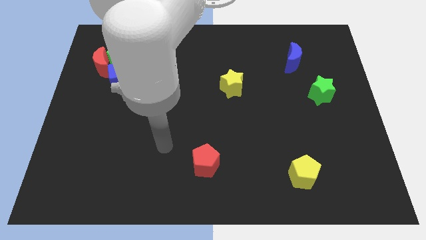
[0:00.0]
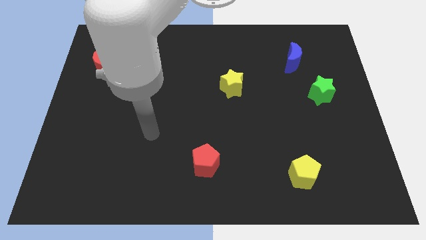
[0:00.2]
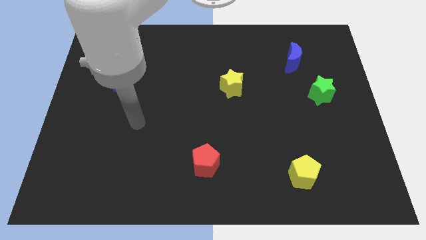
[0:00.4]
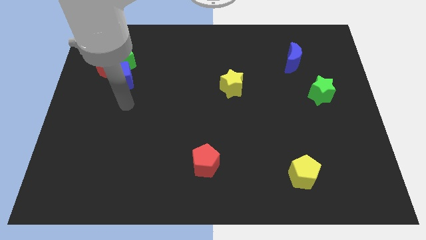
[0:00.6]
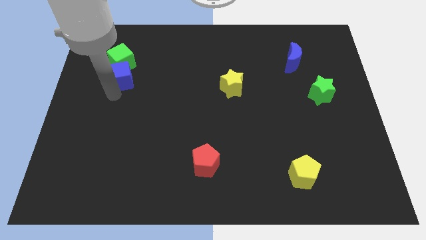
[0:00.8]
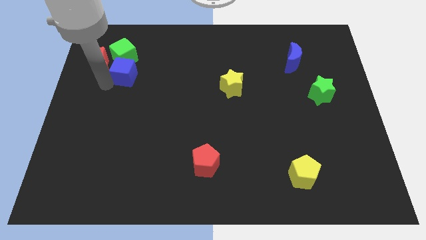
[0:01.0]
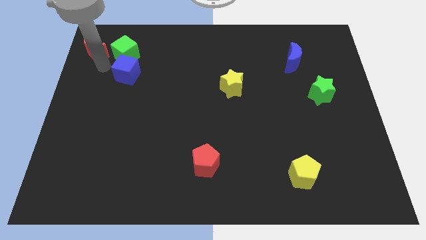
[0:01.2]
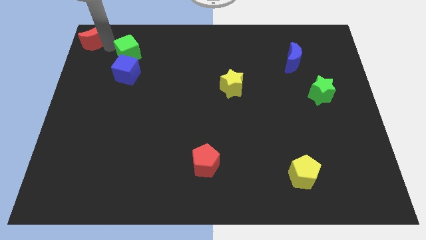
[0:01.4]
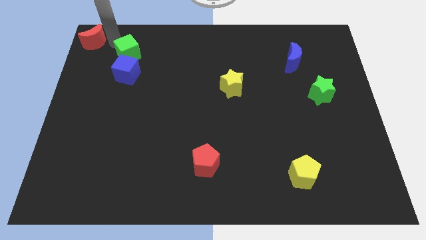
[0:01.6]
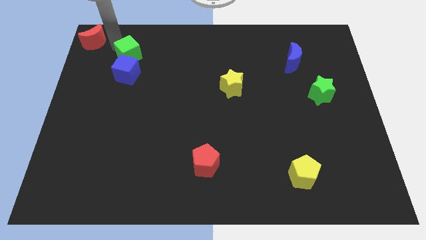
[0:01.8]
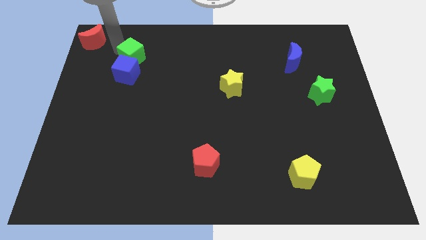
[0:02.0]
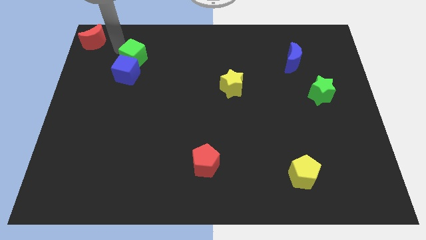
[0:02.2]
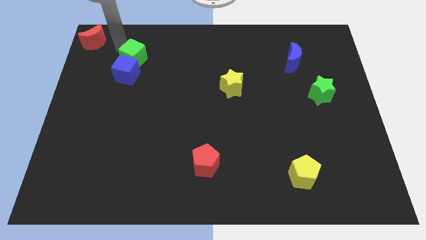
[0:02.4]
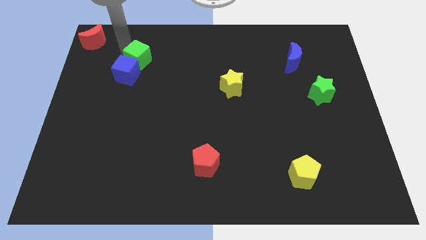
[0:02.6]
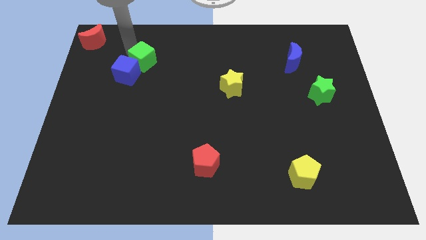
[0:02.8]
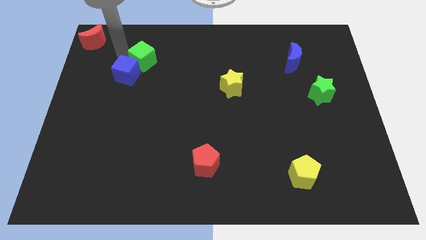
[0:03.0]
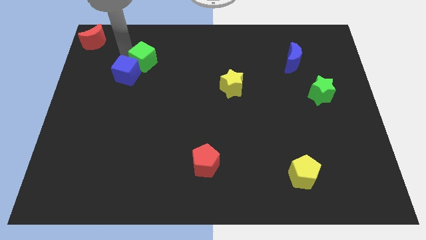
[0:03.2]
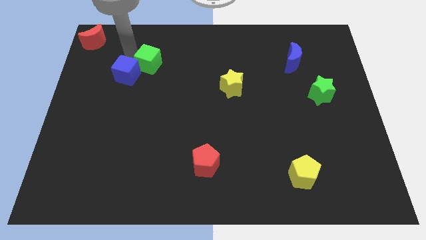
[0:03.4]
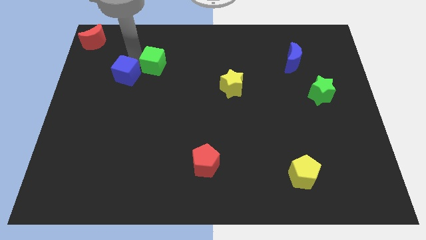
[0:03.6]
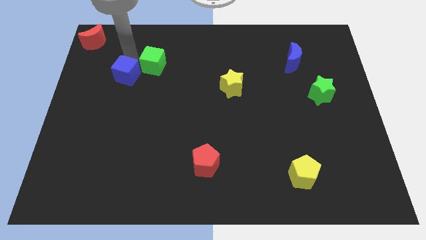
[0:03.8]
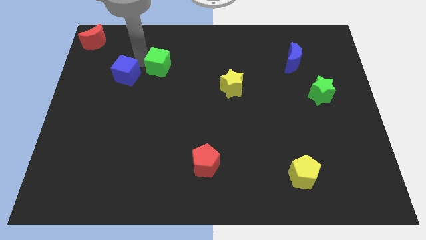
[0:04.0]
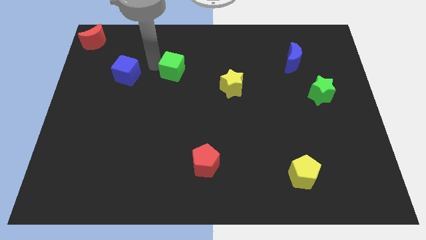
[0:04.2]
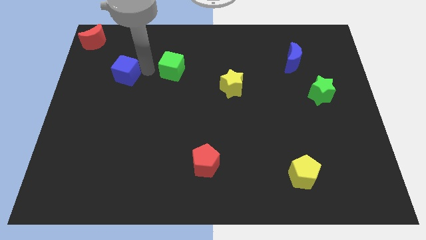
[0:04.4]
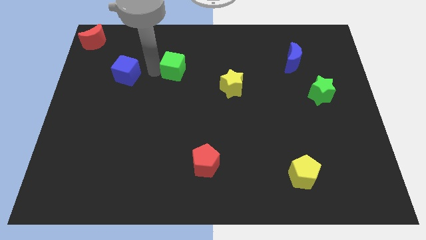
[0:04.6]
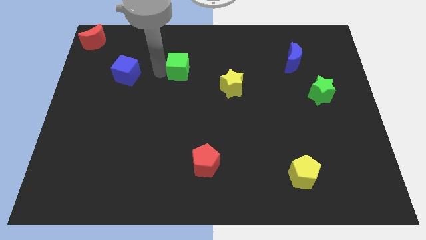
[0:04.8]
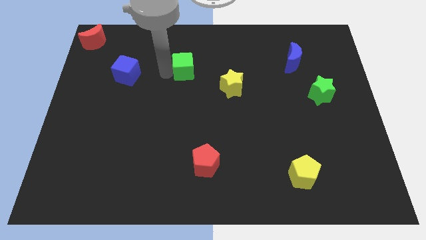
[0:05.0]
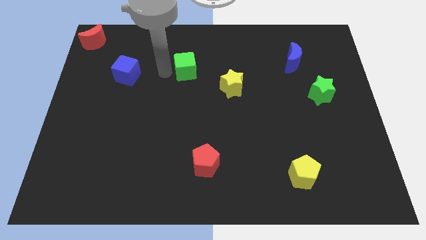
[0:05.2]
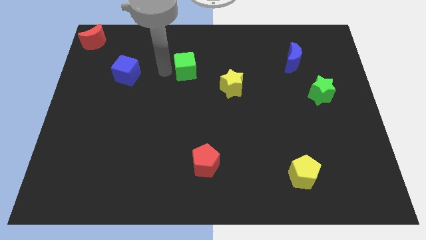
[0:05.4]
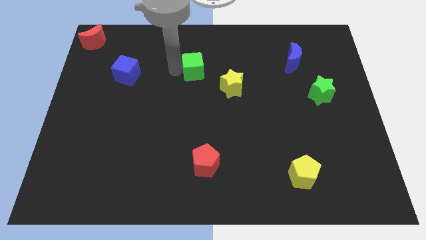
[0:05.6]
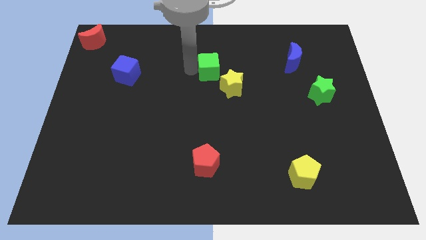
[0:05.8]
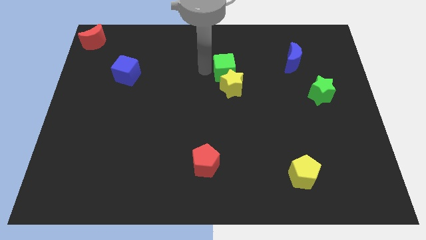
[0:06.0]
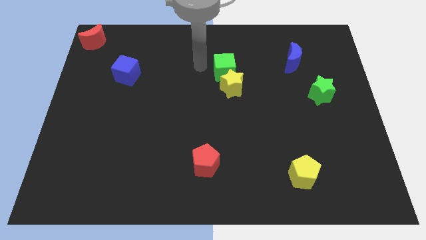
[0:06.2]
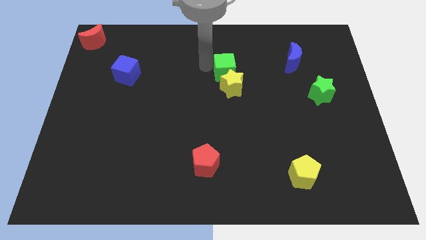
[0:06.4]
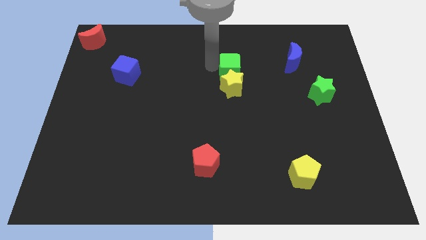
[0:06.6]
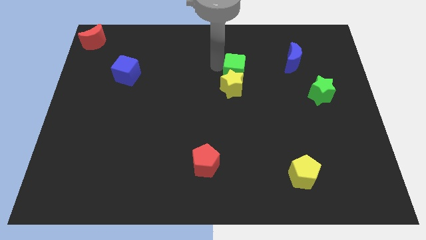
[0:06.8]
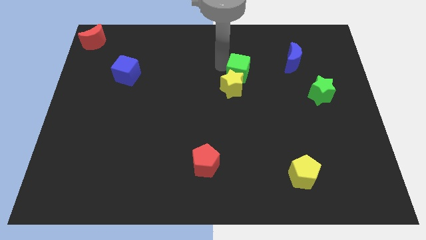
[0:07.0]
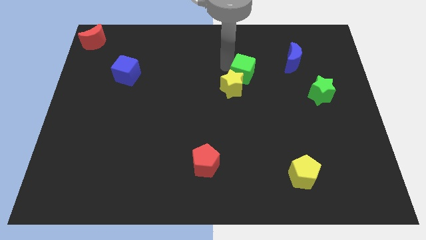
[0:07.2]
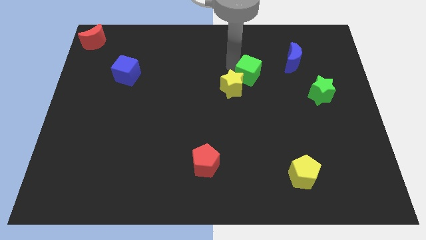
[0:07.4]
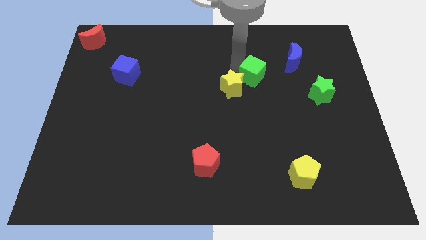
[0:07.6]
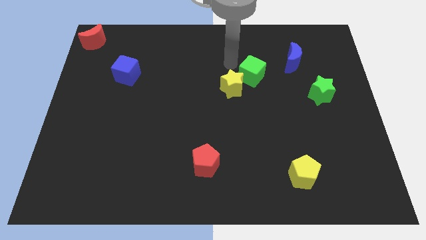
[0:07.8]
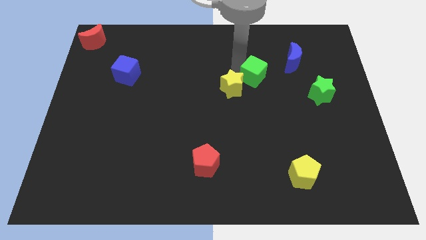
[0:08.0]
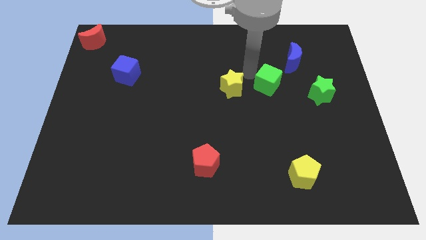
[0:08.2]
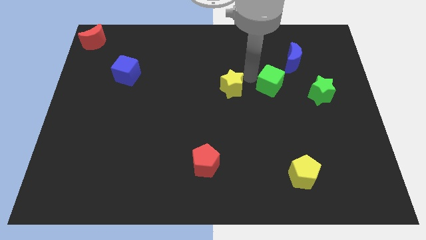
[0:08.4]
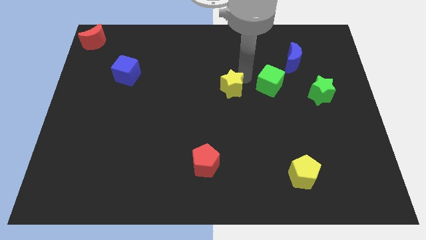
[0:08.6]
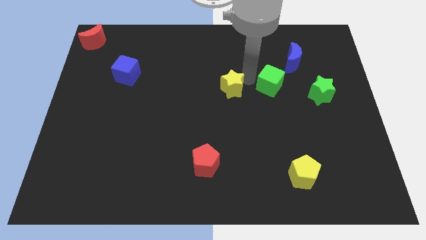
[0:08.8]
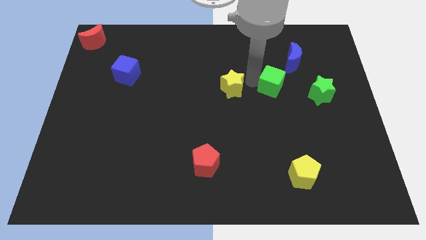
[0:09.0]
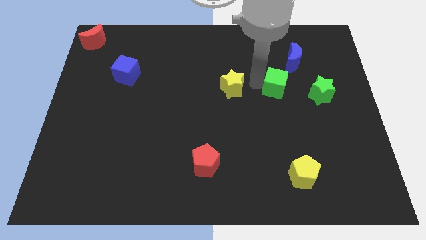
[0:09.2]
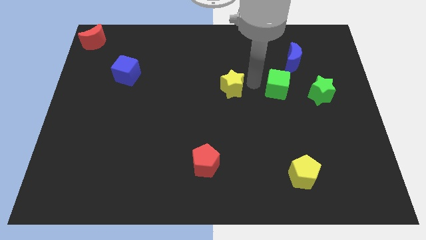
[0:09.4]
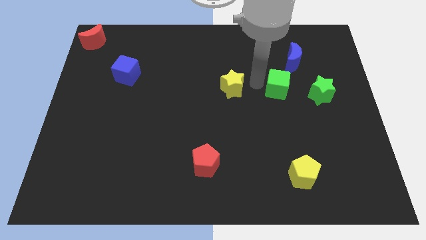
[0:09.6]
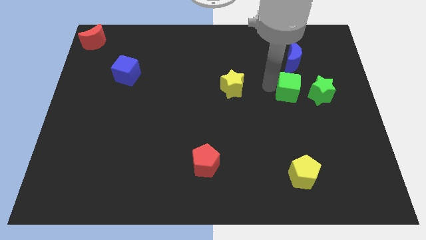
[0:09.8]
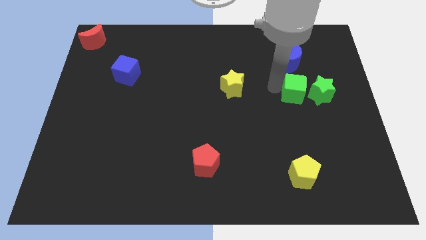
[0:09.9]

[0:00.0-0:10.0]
push the green cube towards the green star

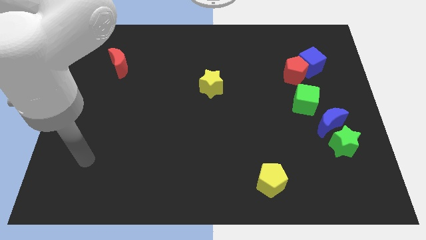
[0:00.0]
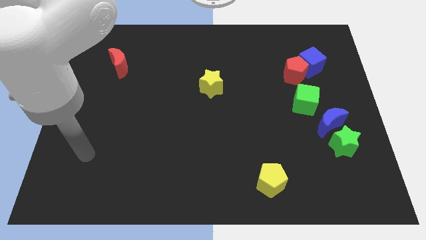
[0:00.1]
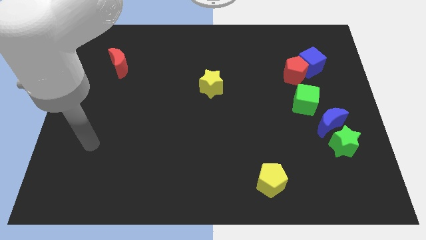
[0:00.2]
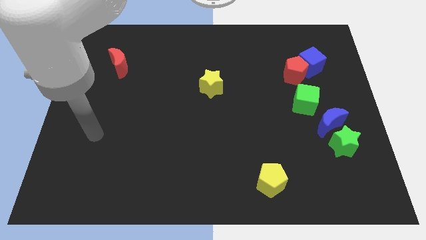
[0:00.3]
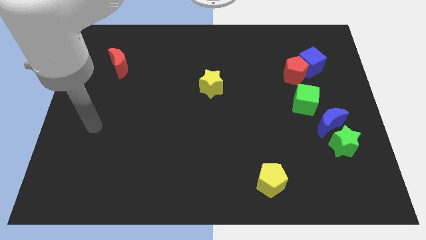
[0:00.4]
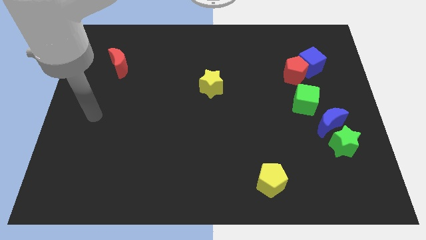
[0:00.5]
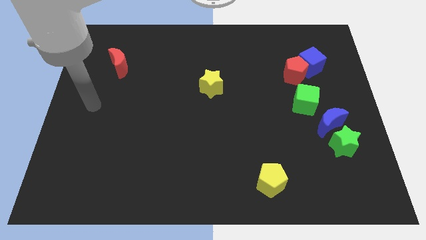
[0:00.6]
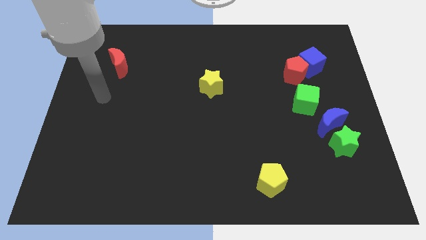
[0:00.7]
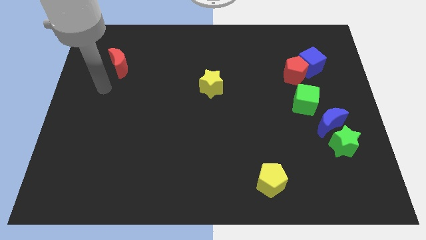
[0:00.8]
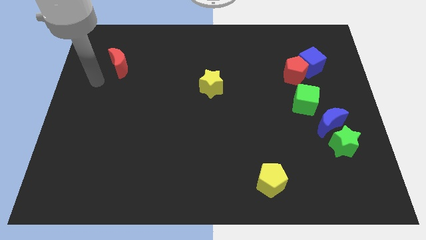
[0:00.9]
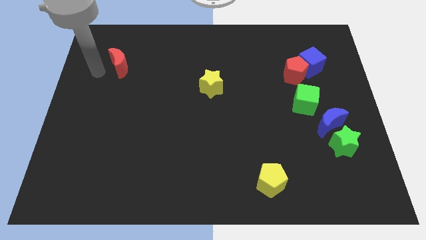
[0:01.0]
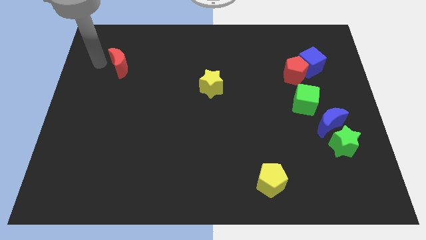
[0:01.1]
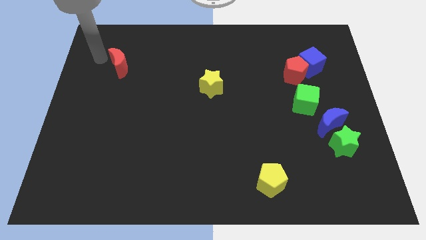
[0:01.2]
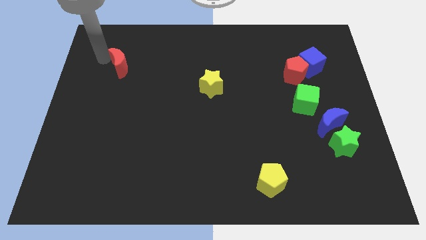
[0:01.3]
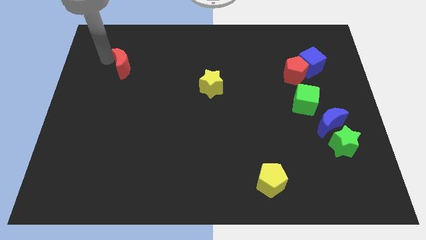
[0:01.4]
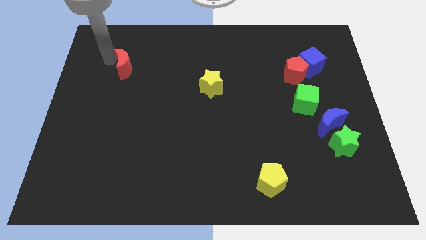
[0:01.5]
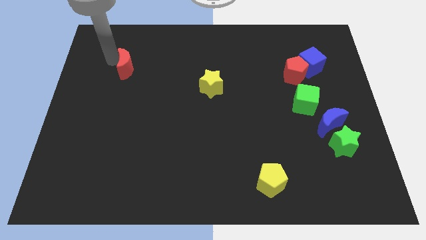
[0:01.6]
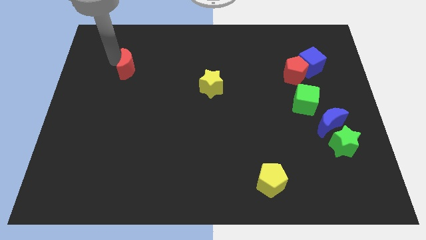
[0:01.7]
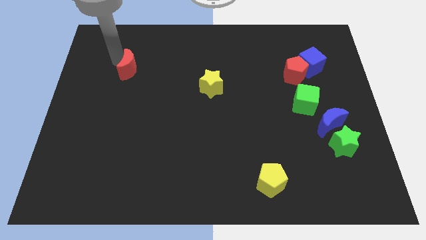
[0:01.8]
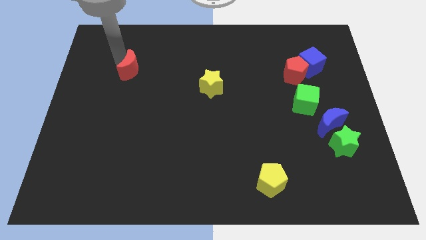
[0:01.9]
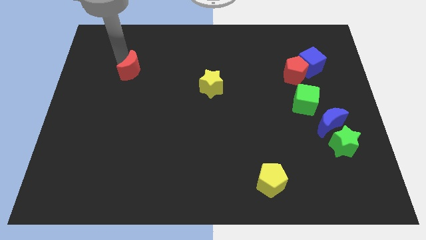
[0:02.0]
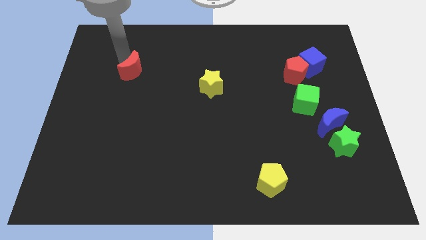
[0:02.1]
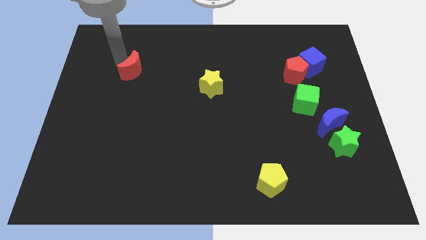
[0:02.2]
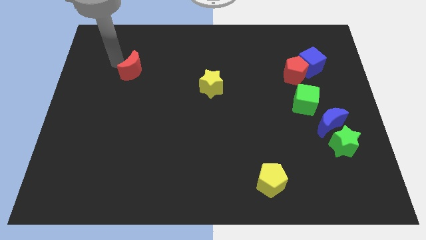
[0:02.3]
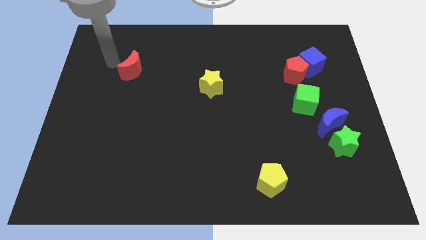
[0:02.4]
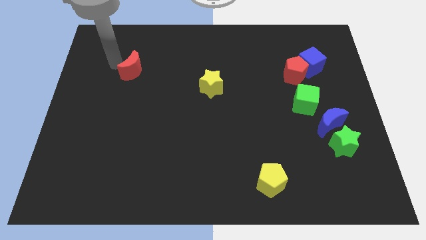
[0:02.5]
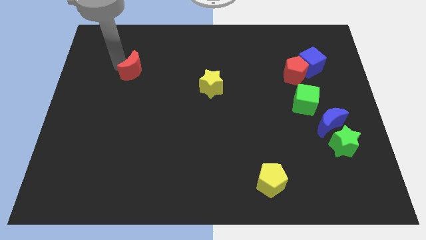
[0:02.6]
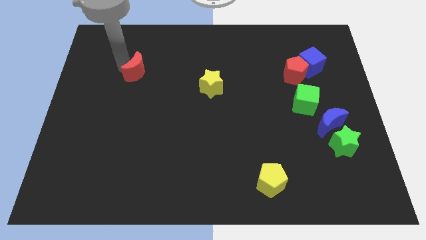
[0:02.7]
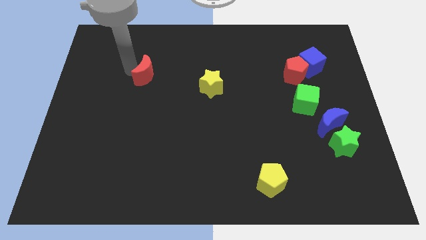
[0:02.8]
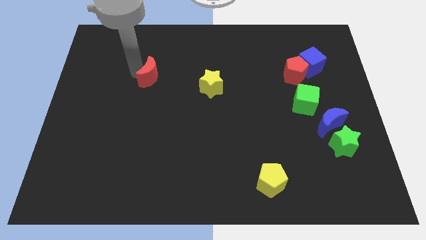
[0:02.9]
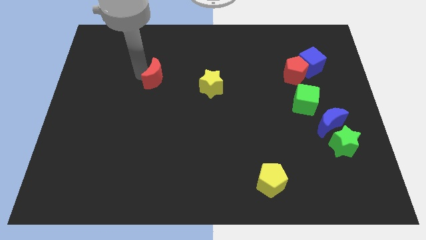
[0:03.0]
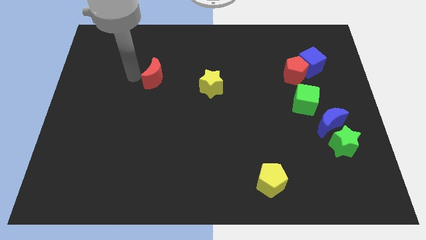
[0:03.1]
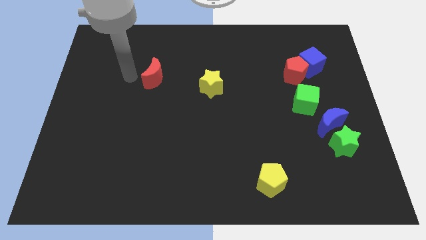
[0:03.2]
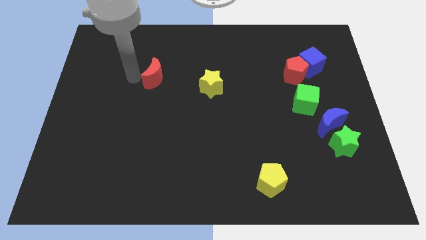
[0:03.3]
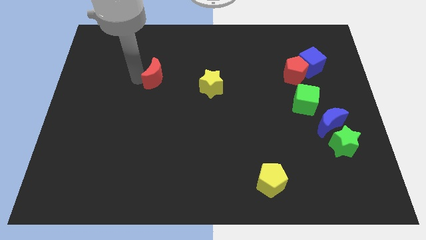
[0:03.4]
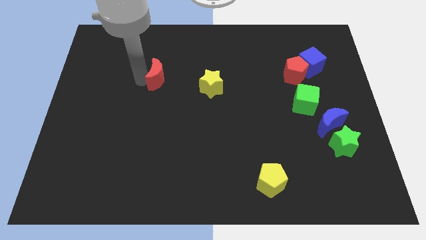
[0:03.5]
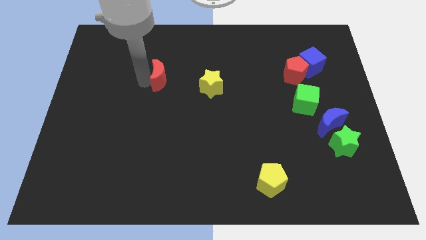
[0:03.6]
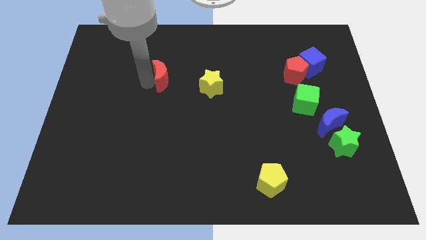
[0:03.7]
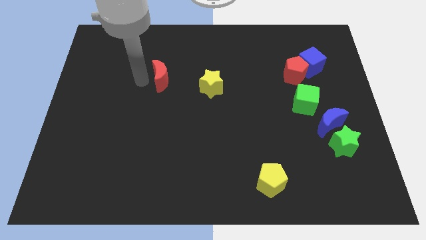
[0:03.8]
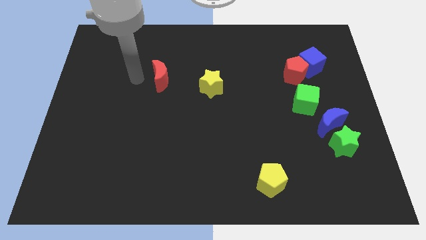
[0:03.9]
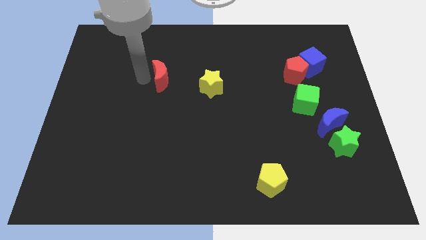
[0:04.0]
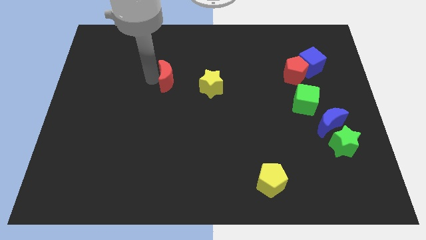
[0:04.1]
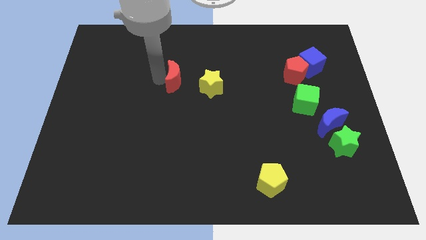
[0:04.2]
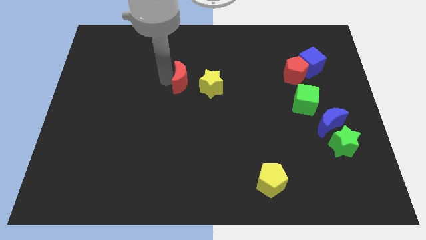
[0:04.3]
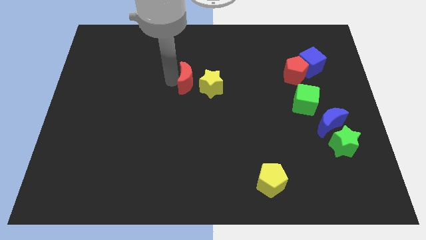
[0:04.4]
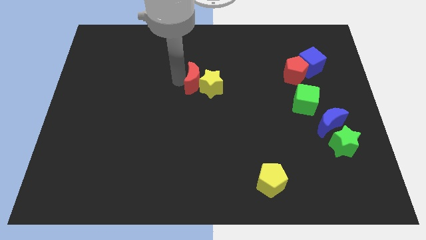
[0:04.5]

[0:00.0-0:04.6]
move the red moon next to the yellow star
